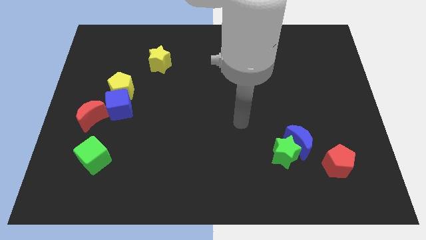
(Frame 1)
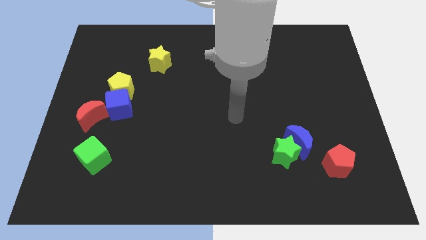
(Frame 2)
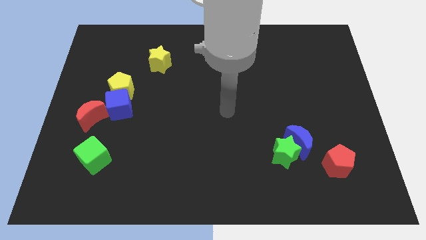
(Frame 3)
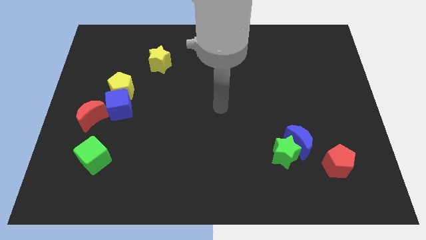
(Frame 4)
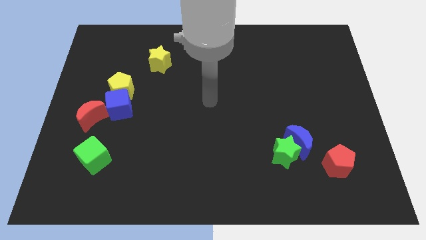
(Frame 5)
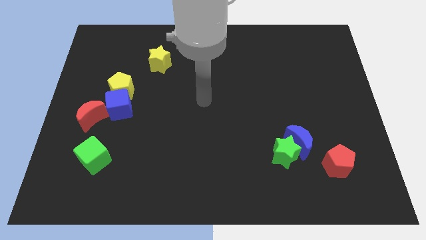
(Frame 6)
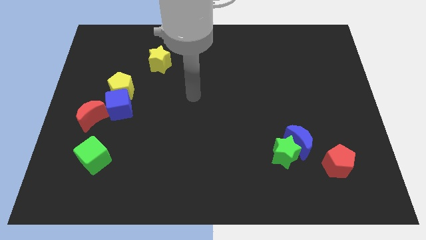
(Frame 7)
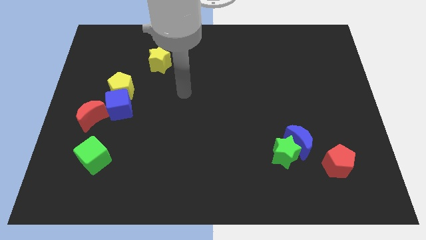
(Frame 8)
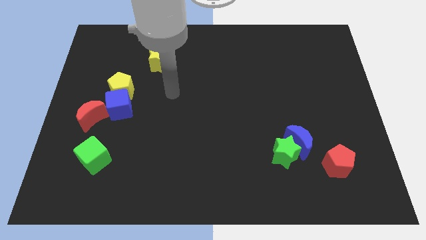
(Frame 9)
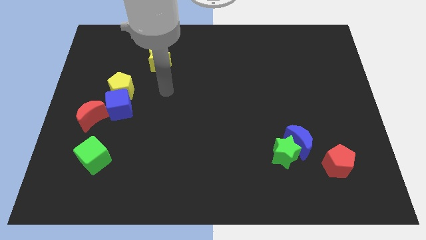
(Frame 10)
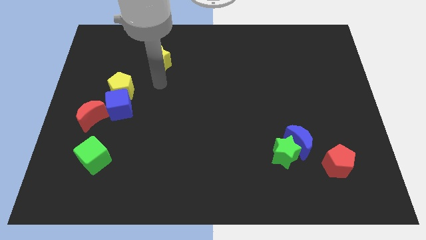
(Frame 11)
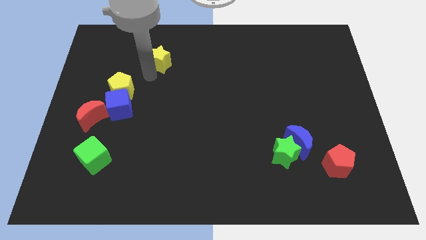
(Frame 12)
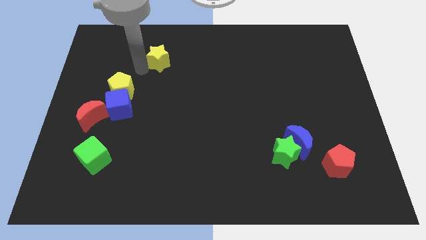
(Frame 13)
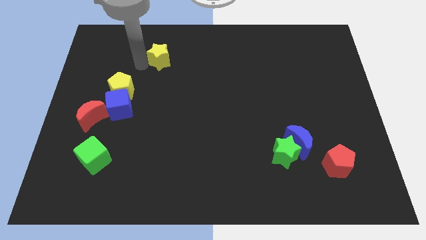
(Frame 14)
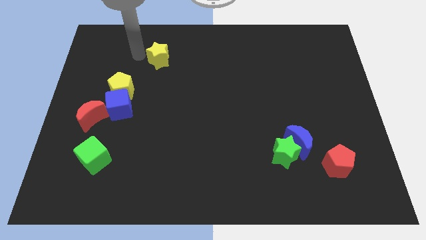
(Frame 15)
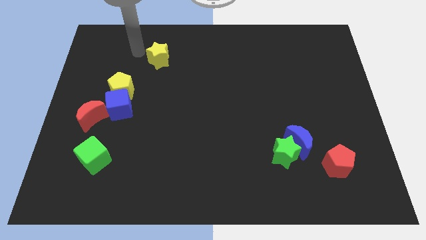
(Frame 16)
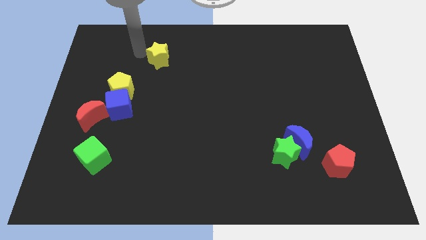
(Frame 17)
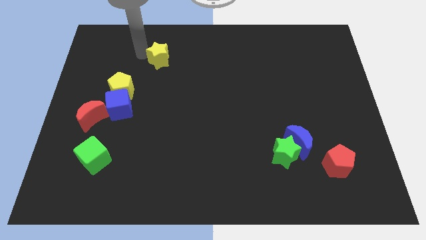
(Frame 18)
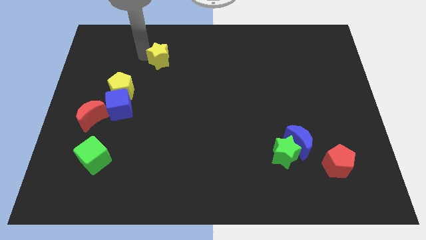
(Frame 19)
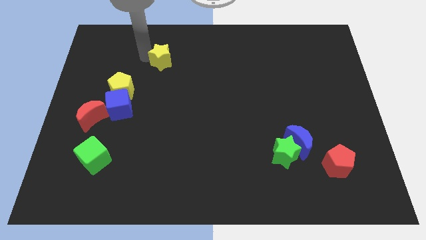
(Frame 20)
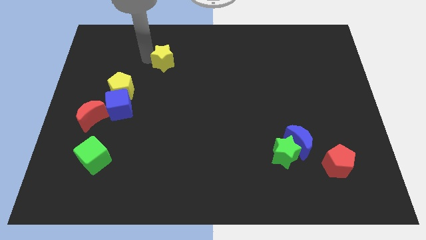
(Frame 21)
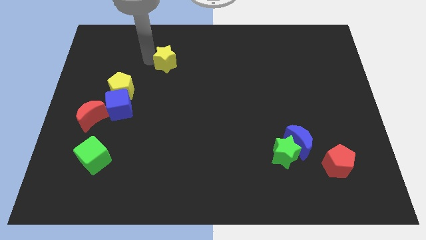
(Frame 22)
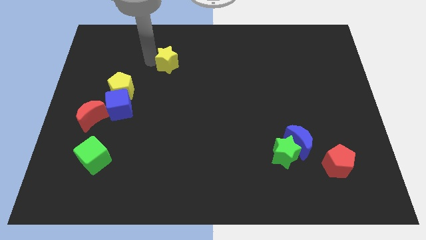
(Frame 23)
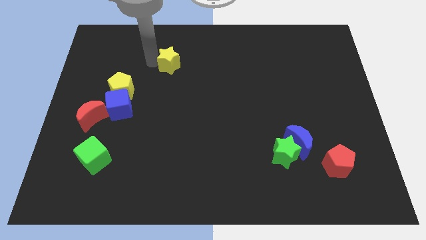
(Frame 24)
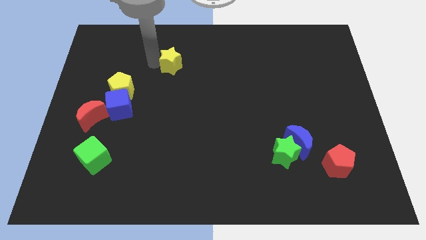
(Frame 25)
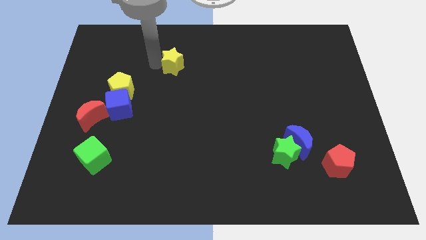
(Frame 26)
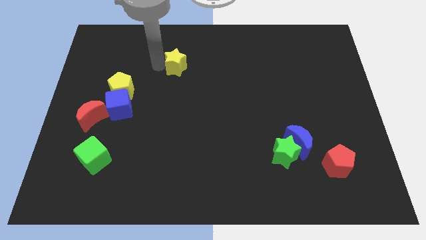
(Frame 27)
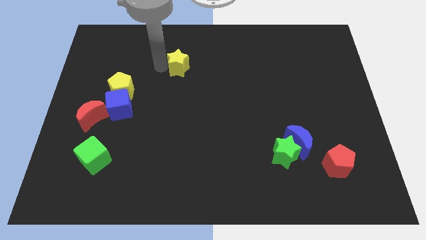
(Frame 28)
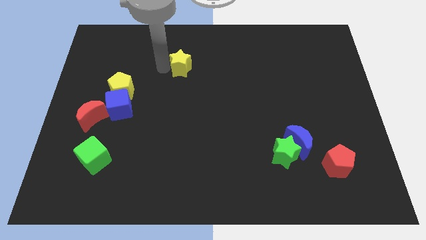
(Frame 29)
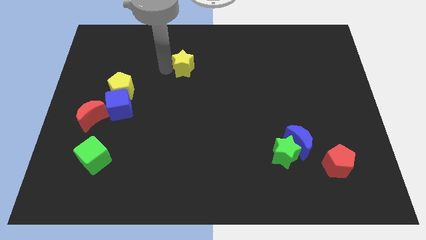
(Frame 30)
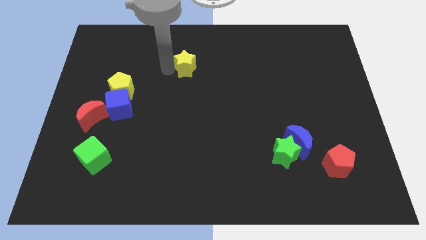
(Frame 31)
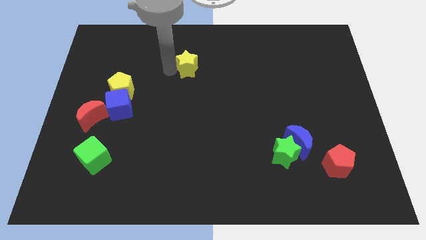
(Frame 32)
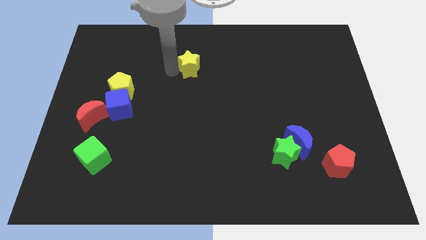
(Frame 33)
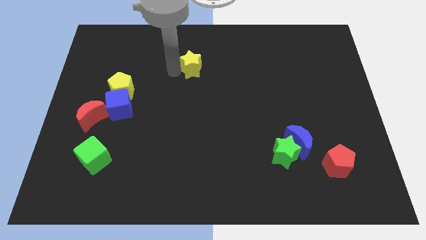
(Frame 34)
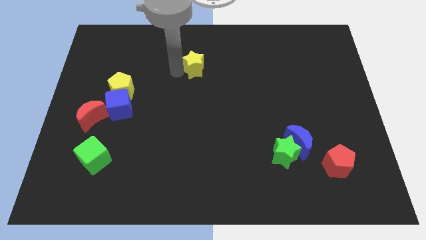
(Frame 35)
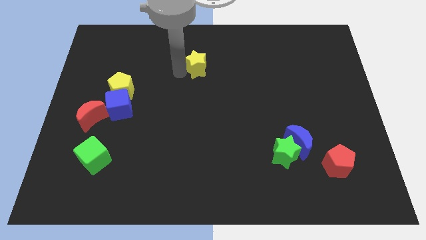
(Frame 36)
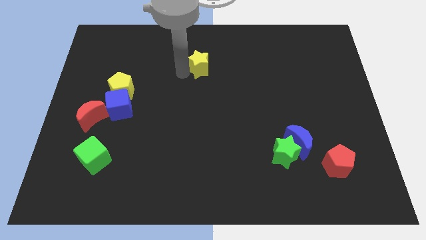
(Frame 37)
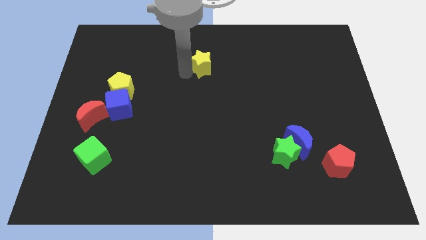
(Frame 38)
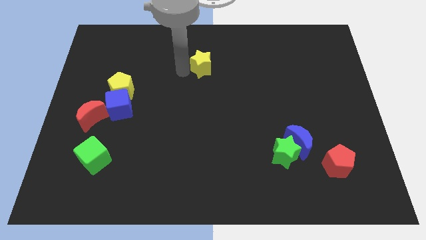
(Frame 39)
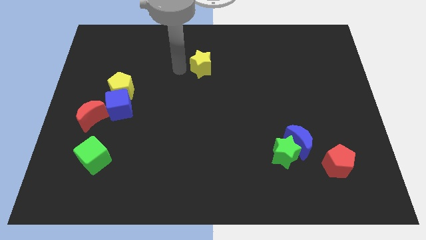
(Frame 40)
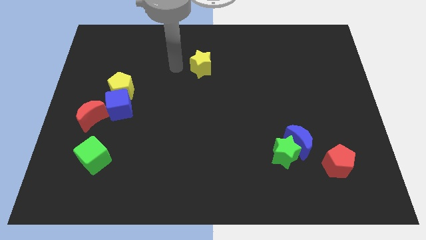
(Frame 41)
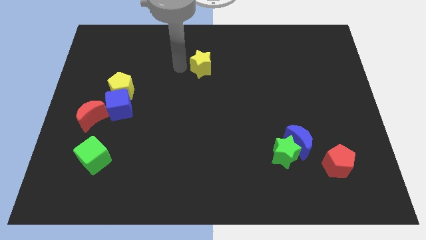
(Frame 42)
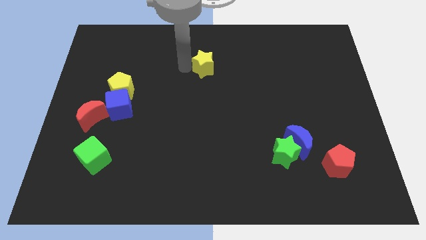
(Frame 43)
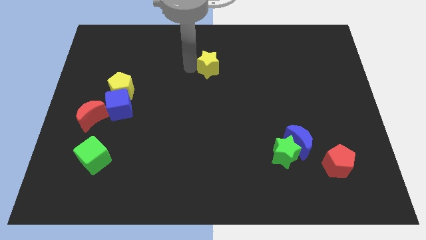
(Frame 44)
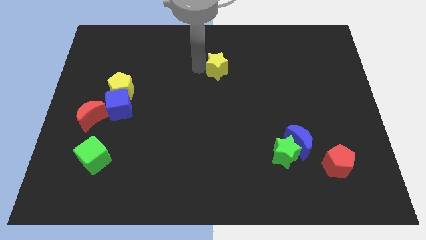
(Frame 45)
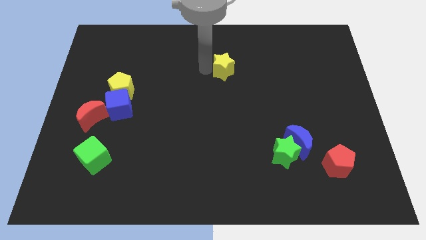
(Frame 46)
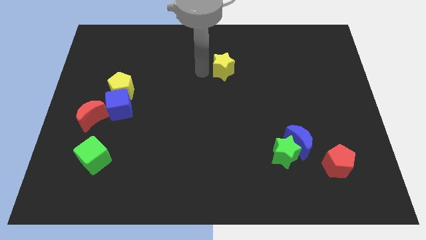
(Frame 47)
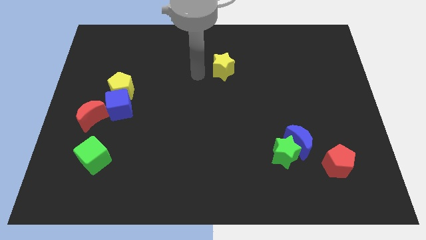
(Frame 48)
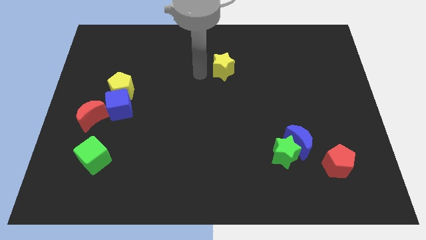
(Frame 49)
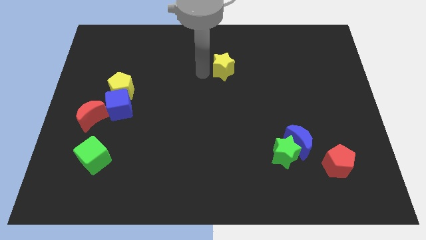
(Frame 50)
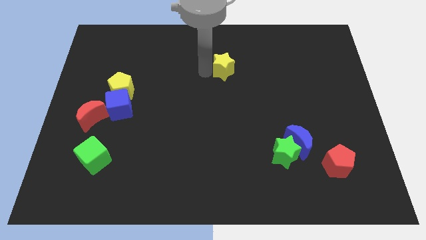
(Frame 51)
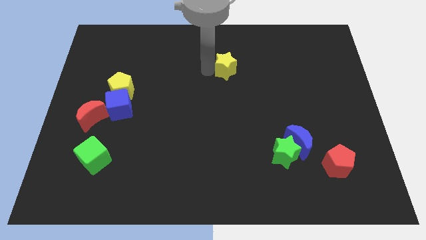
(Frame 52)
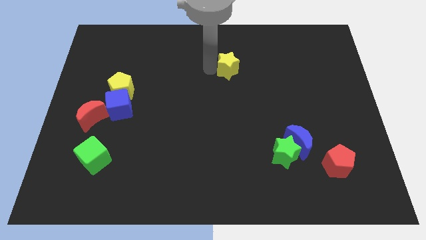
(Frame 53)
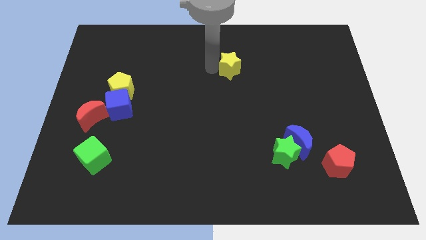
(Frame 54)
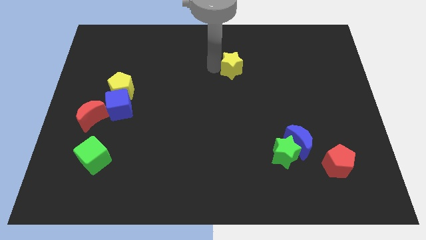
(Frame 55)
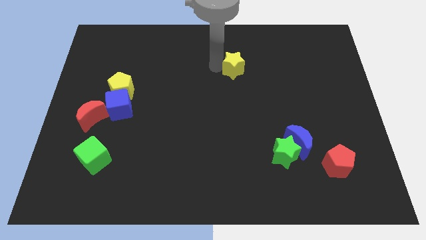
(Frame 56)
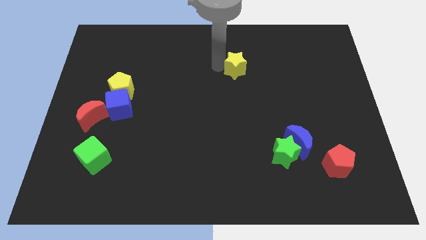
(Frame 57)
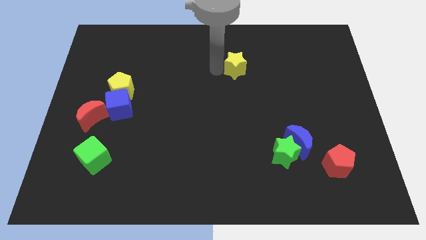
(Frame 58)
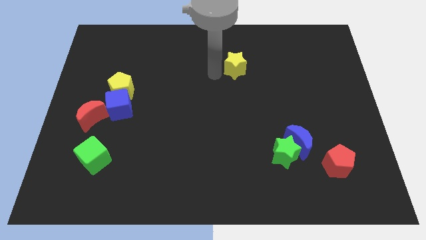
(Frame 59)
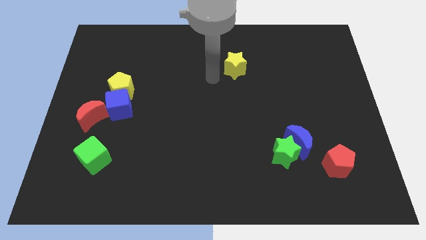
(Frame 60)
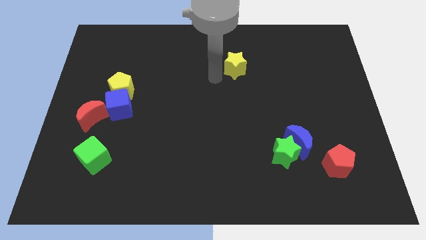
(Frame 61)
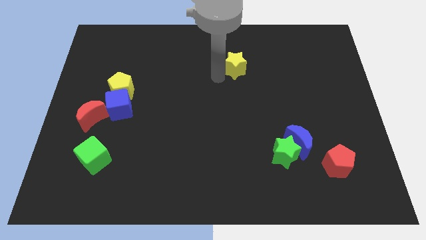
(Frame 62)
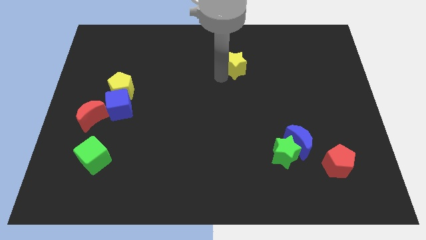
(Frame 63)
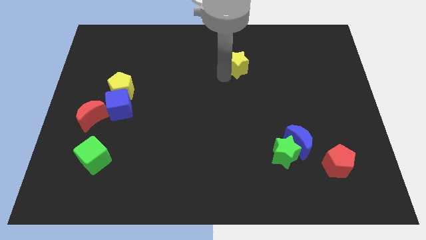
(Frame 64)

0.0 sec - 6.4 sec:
push the yellow star to the right

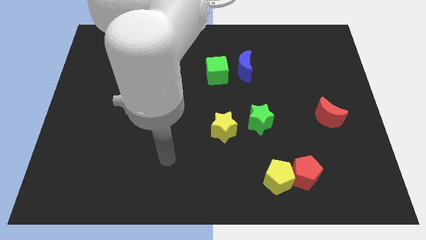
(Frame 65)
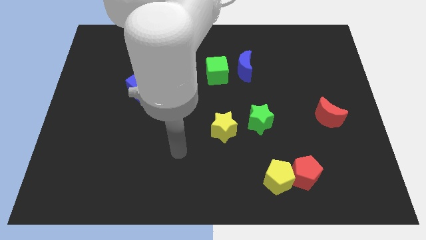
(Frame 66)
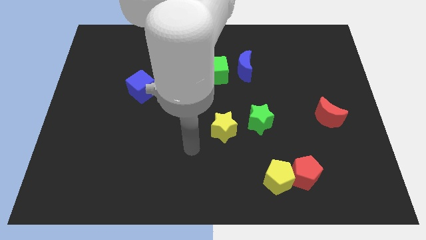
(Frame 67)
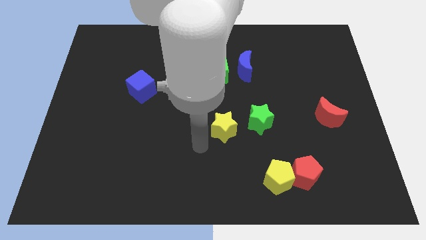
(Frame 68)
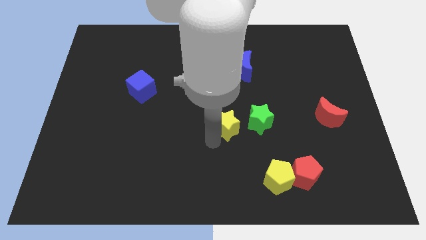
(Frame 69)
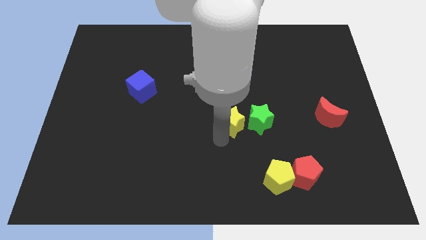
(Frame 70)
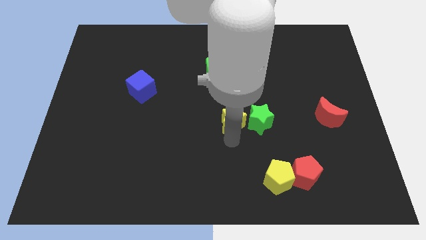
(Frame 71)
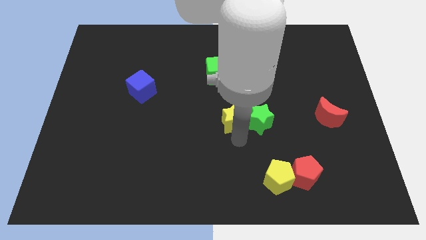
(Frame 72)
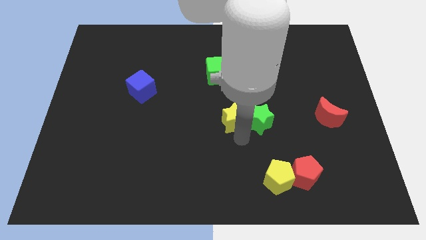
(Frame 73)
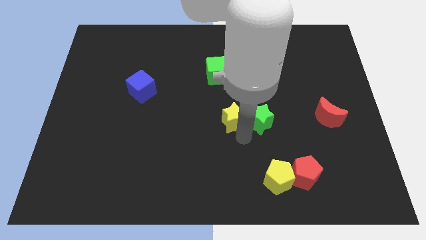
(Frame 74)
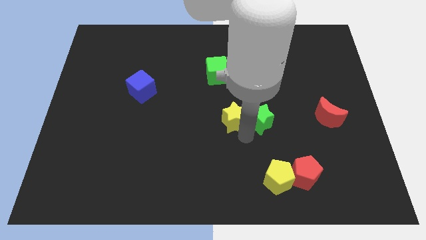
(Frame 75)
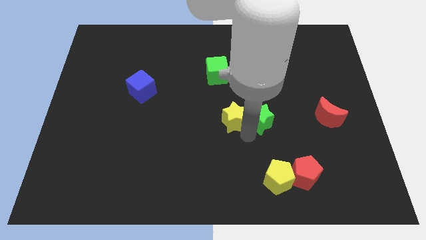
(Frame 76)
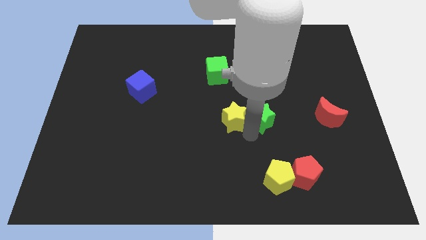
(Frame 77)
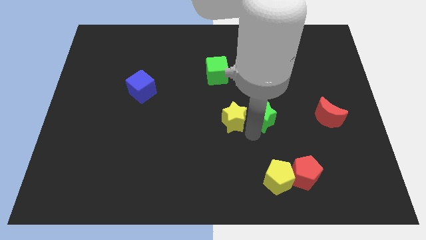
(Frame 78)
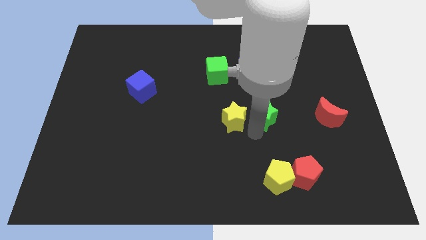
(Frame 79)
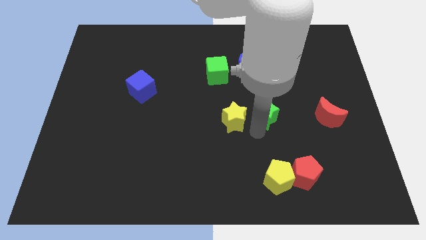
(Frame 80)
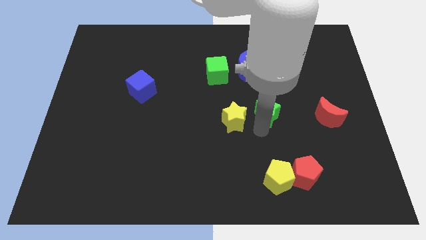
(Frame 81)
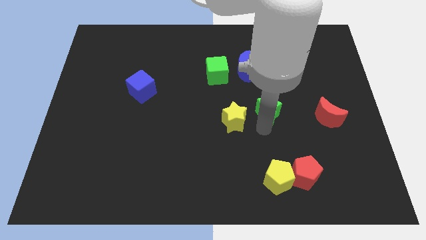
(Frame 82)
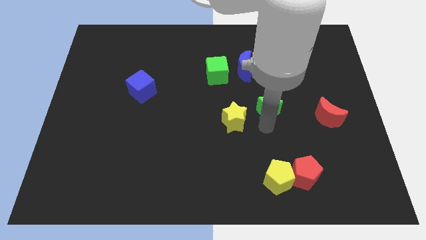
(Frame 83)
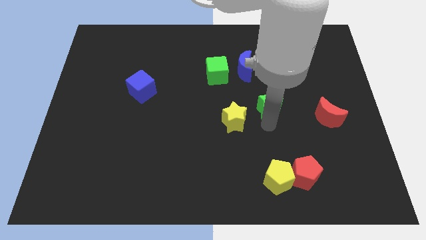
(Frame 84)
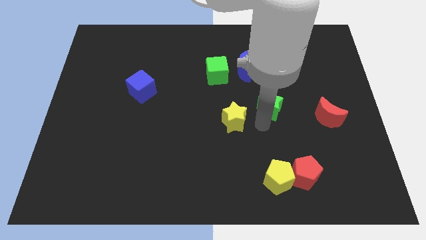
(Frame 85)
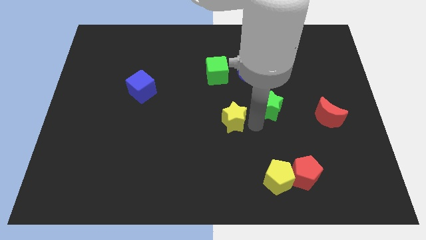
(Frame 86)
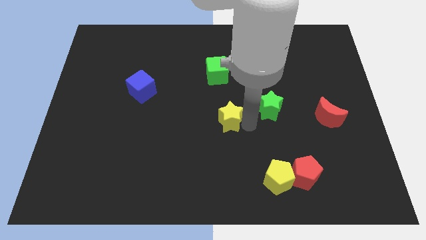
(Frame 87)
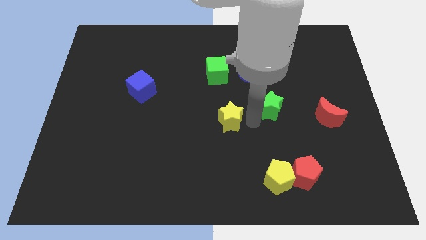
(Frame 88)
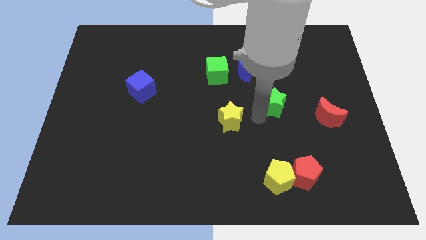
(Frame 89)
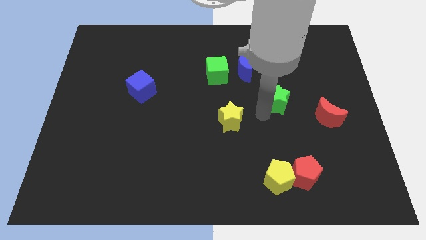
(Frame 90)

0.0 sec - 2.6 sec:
move the green star diagonally upwards and right a little
